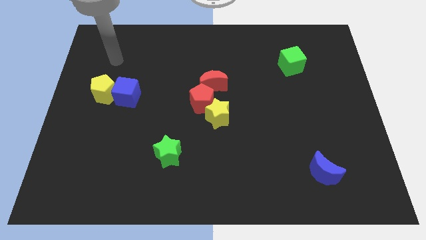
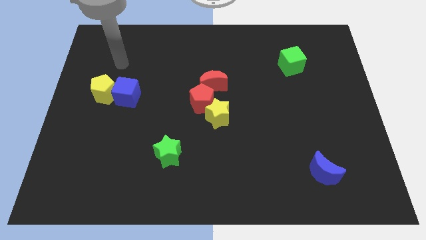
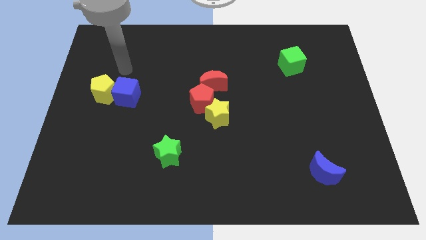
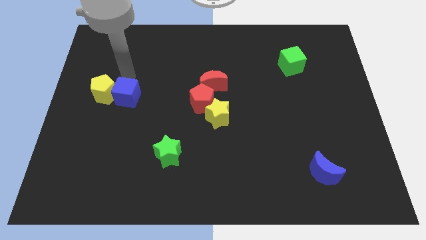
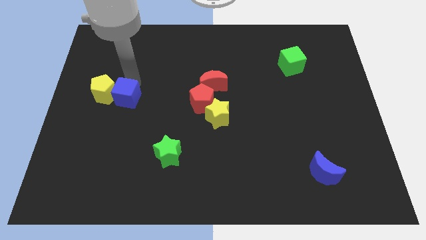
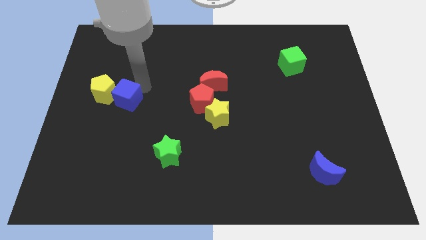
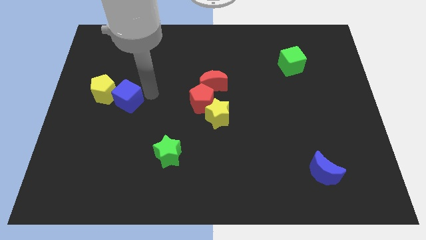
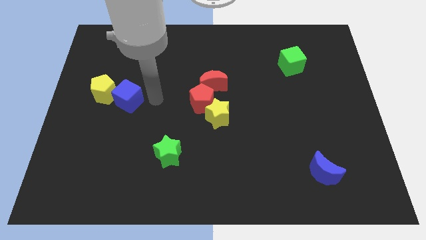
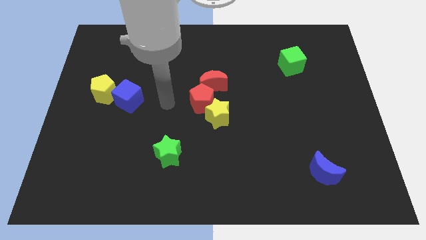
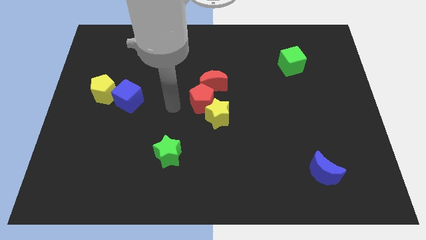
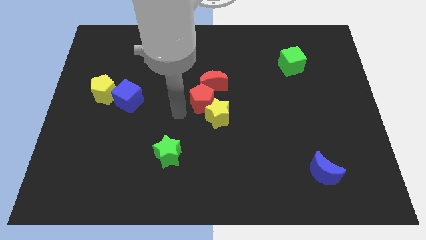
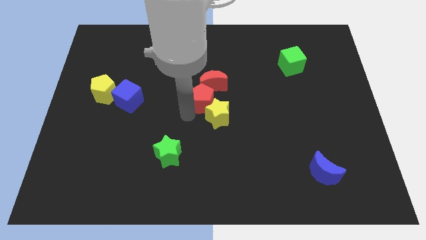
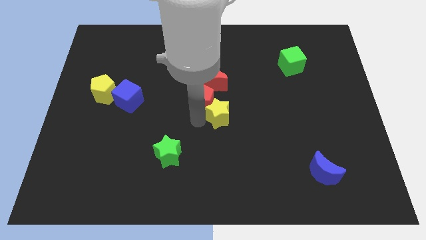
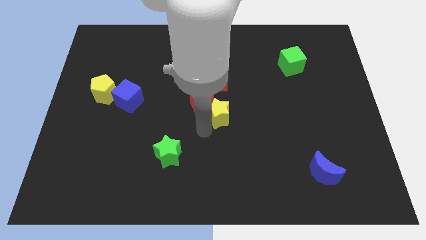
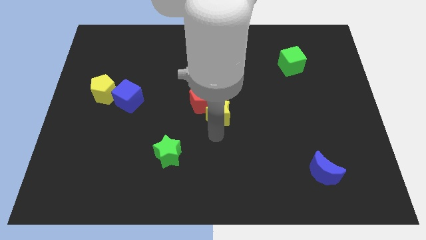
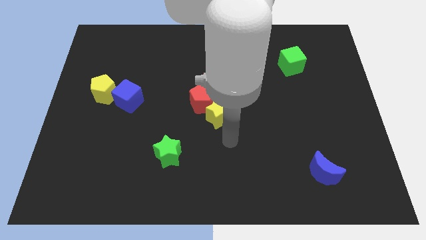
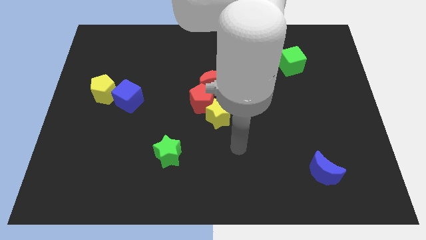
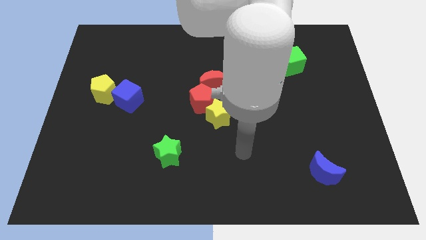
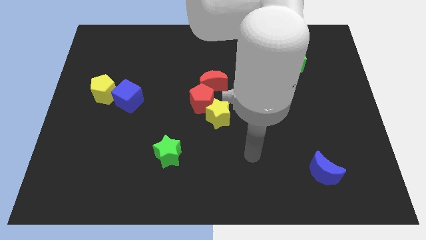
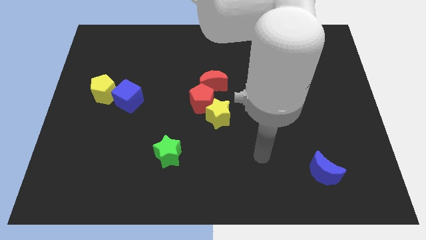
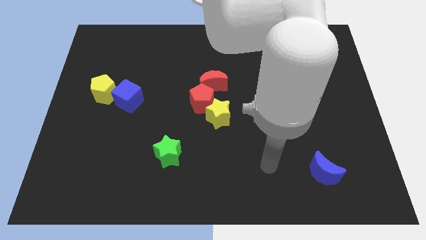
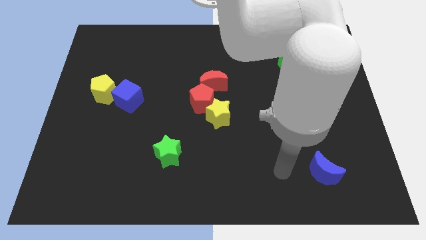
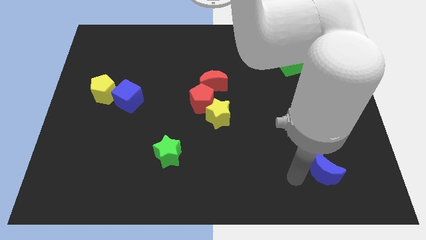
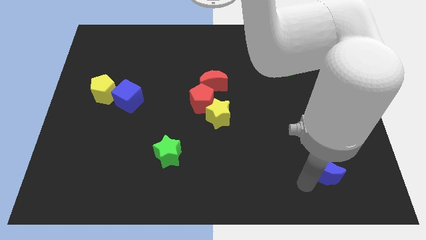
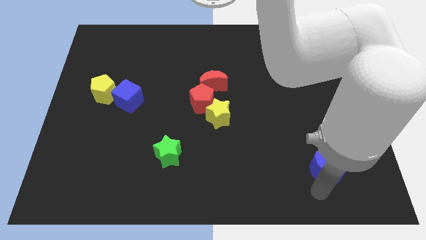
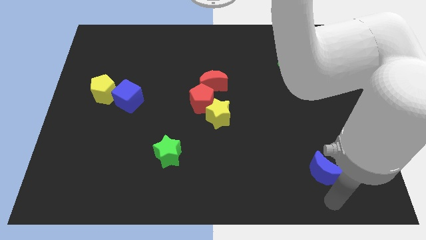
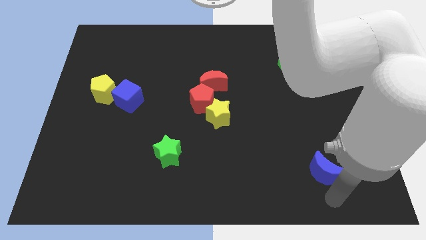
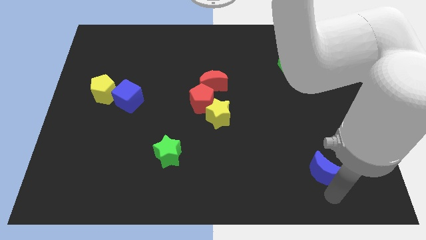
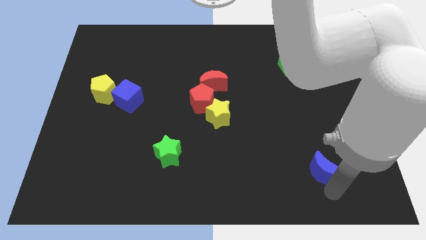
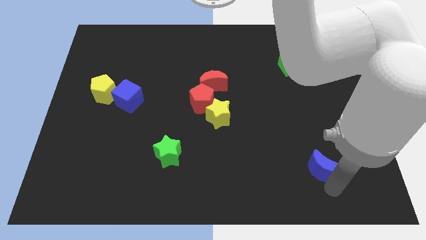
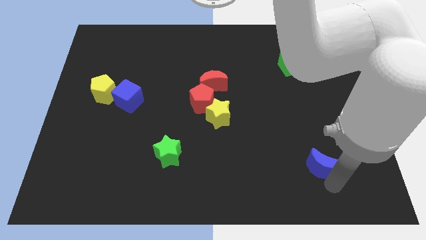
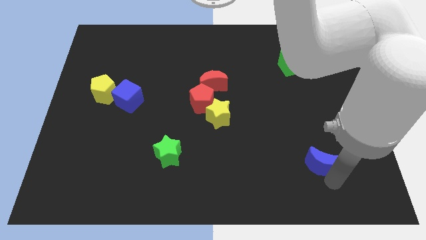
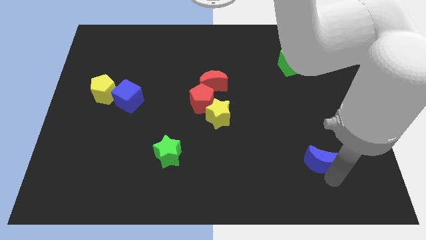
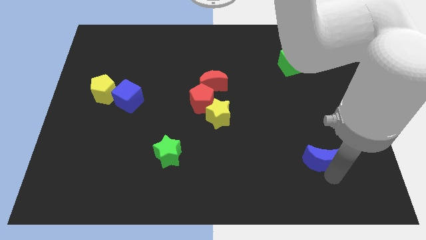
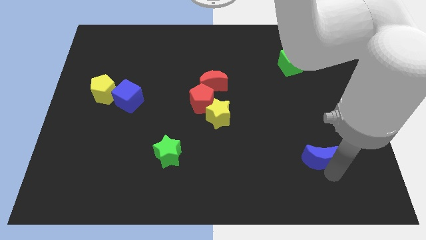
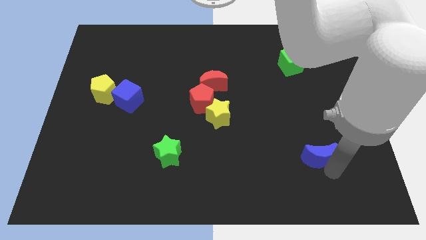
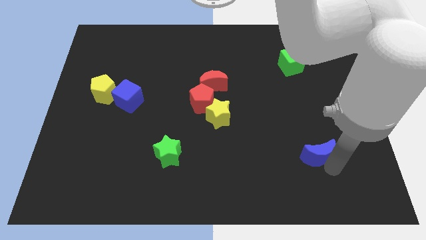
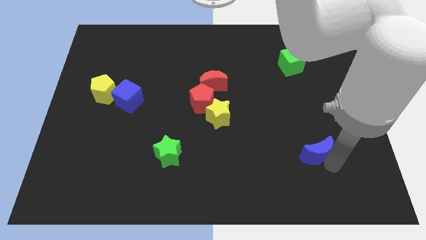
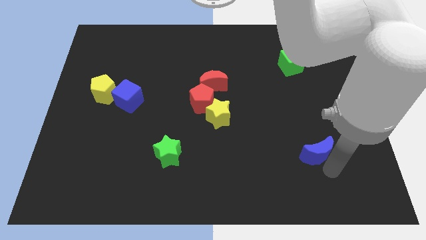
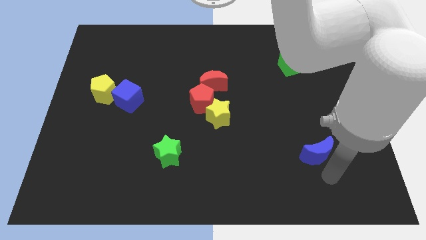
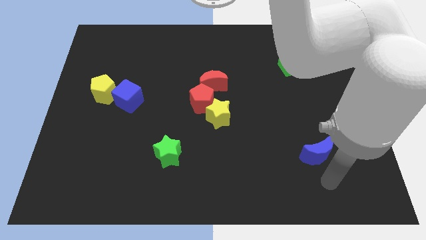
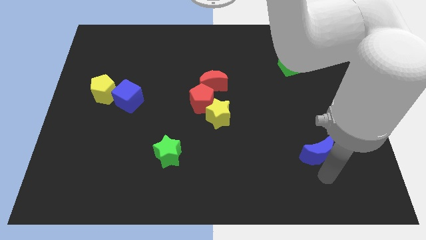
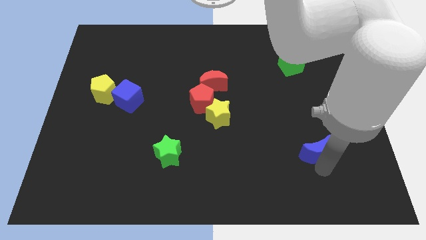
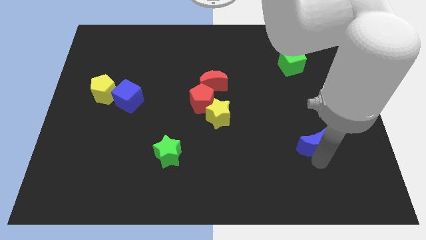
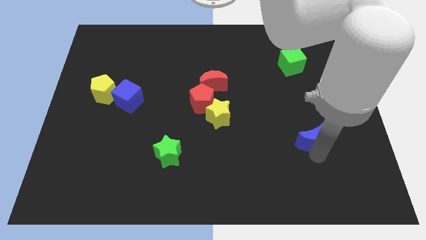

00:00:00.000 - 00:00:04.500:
slightly push the blue moon up

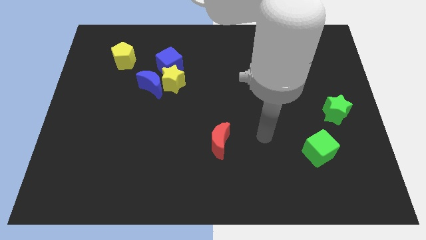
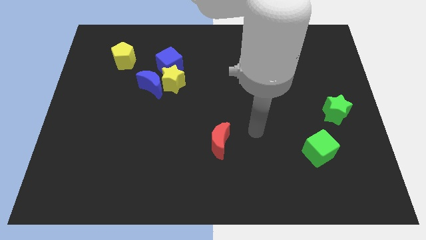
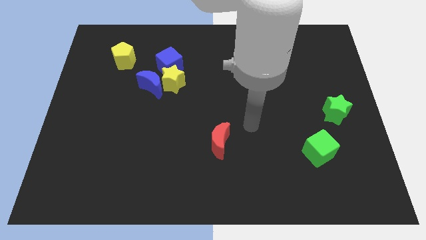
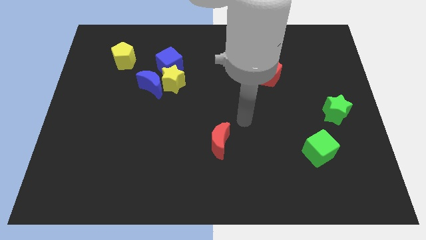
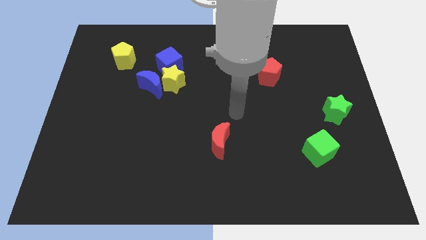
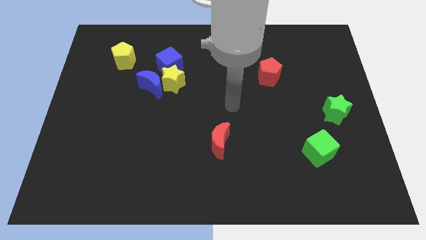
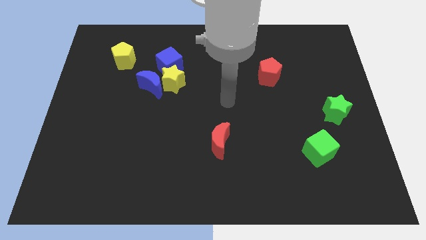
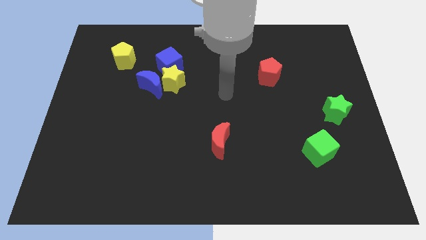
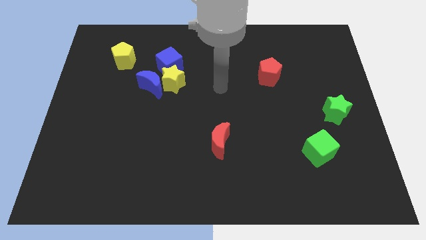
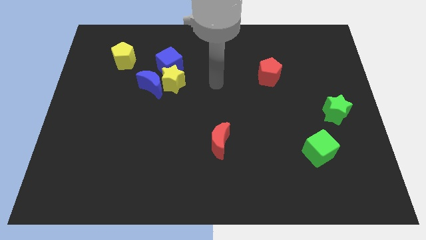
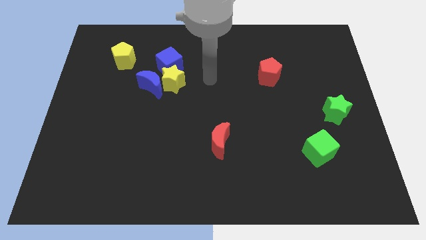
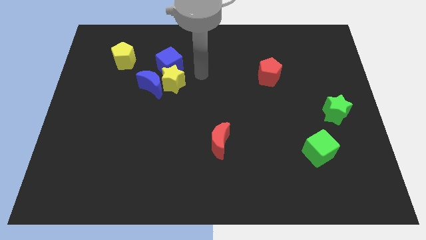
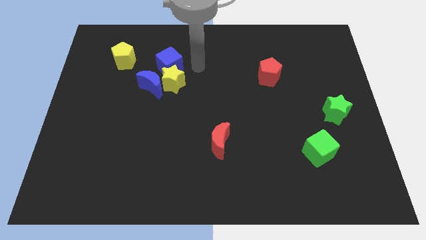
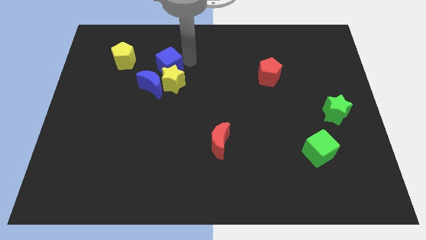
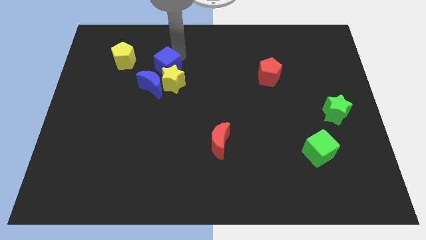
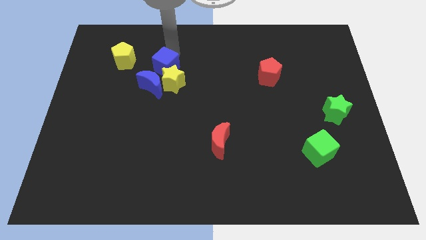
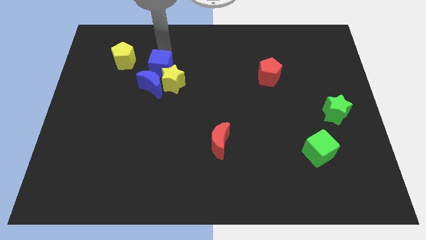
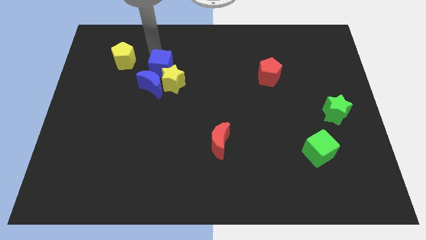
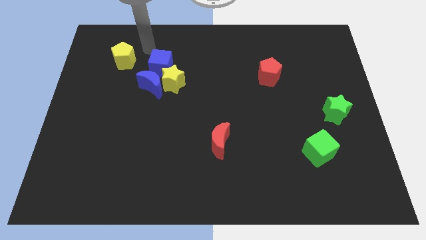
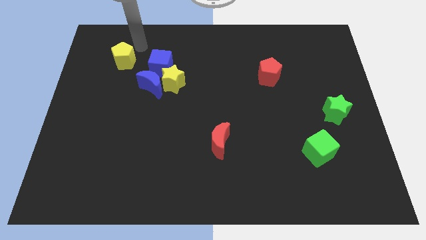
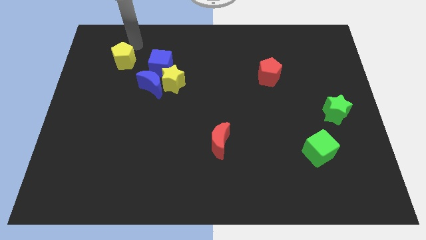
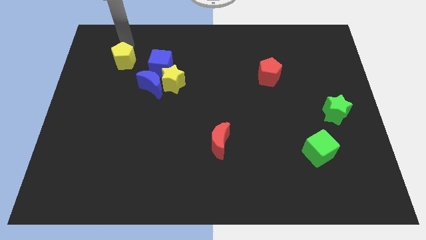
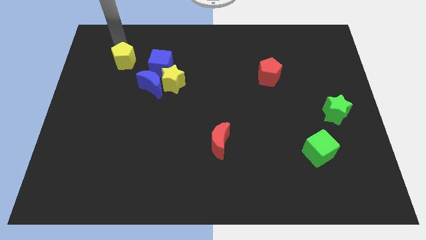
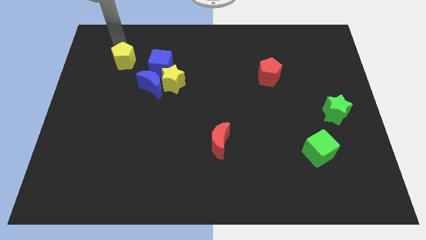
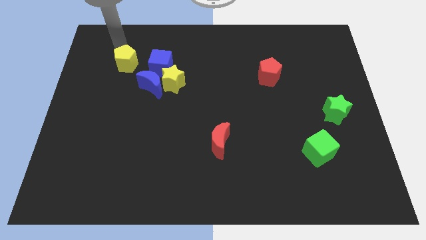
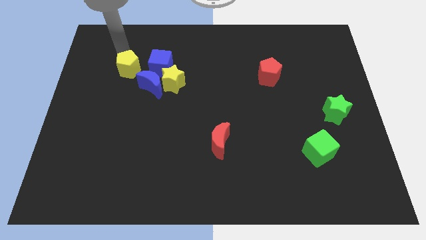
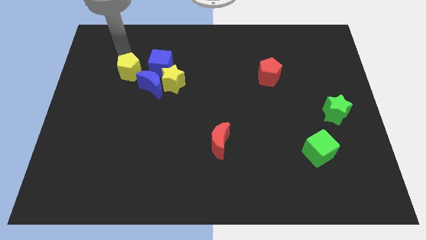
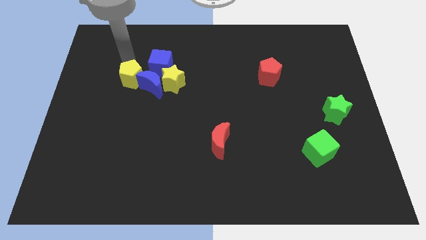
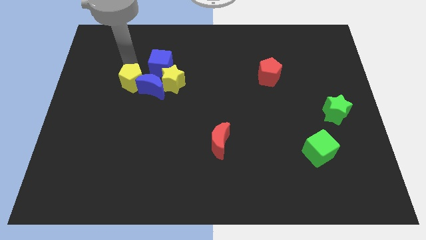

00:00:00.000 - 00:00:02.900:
slide the yellow pentagon downwards and right a little

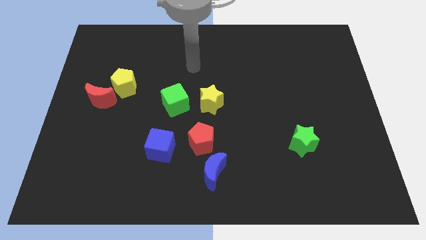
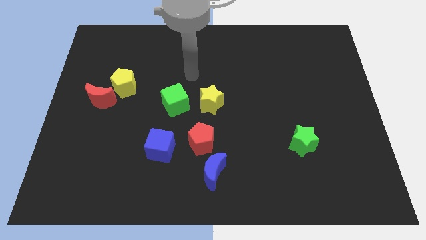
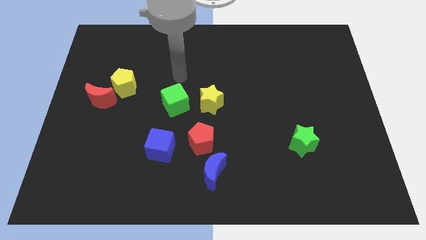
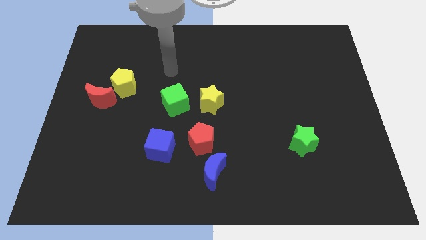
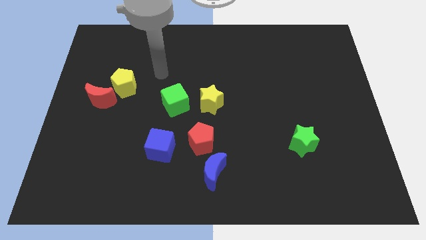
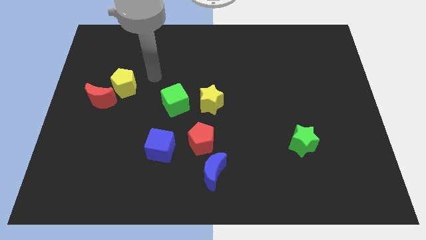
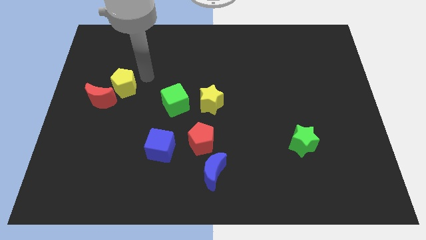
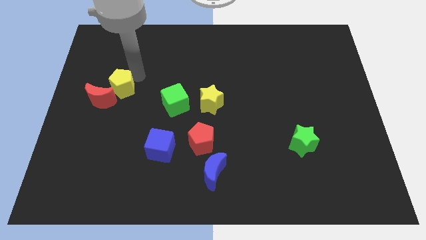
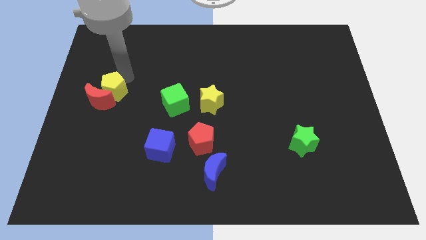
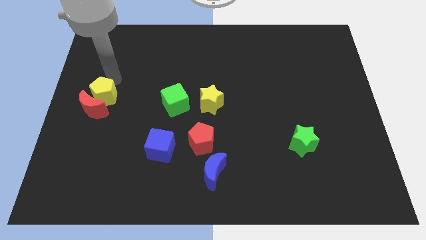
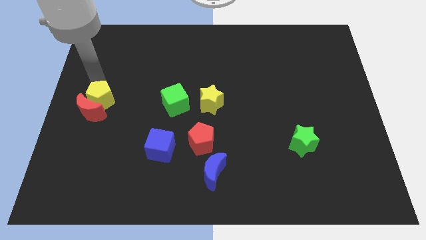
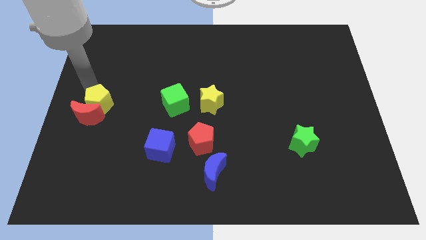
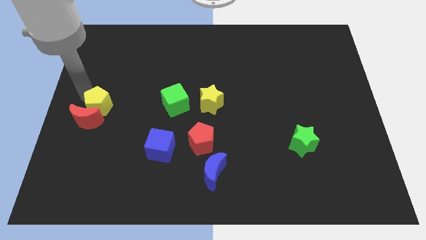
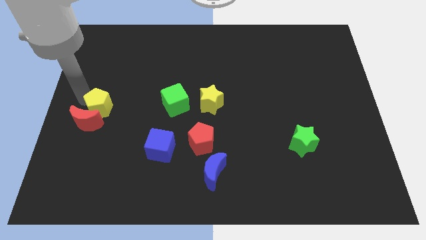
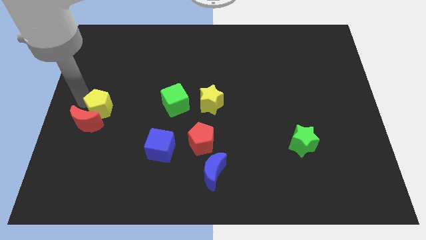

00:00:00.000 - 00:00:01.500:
slightly move the red moon down
